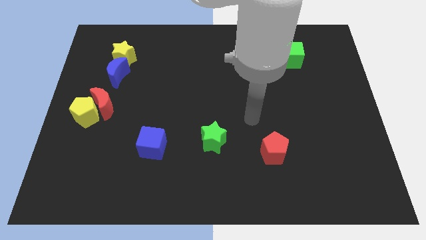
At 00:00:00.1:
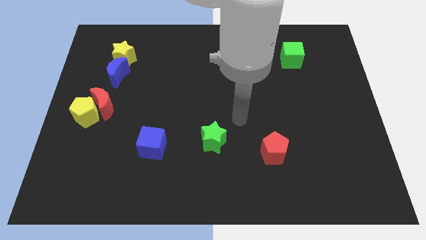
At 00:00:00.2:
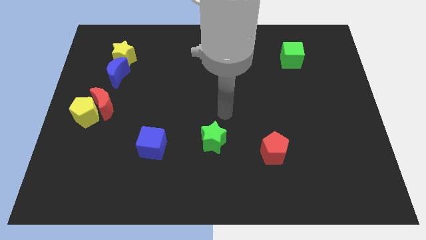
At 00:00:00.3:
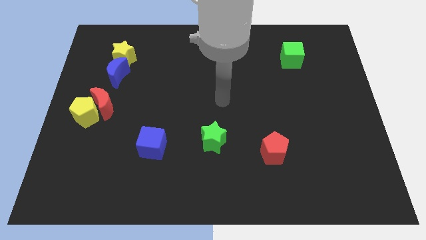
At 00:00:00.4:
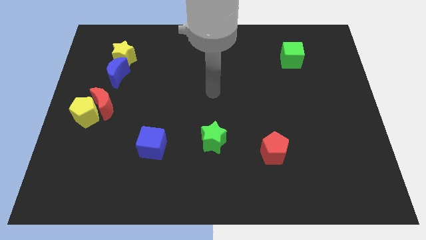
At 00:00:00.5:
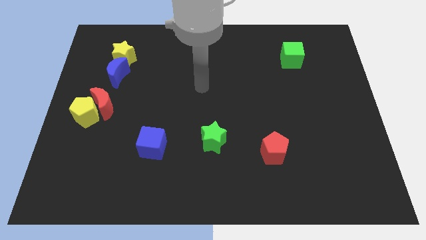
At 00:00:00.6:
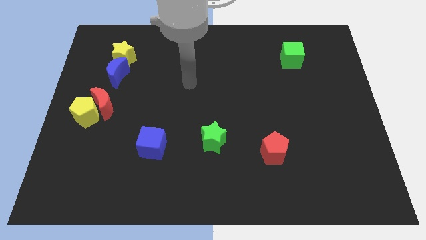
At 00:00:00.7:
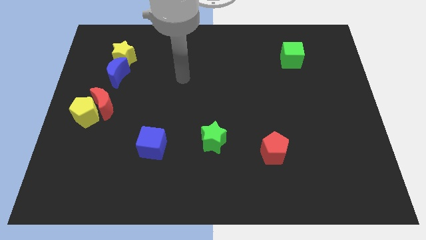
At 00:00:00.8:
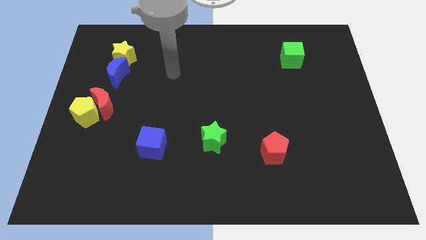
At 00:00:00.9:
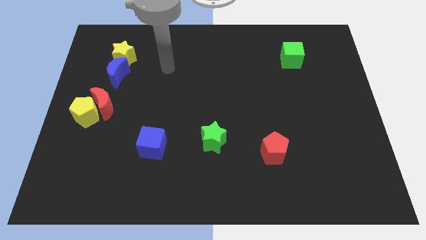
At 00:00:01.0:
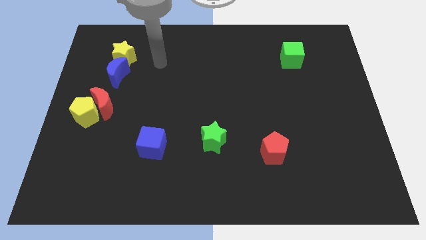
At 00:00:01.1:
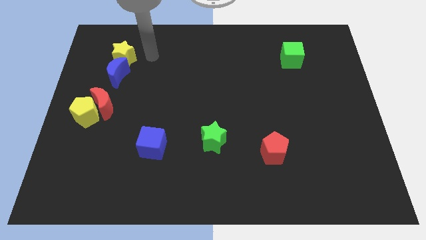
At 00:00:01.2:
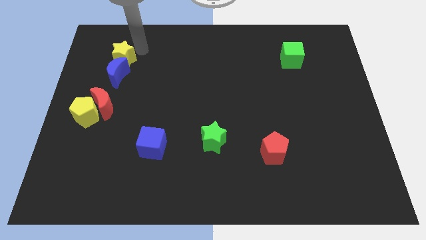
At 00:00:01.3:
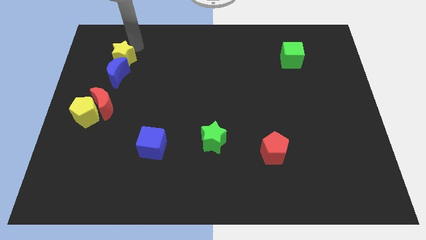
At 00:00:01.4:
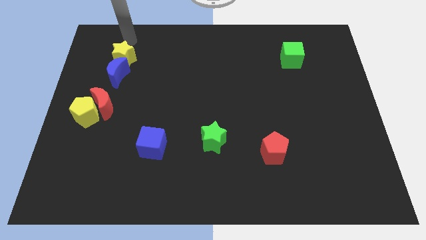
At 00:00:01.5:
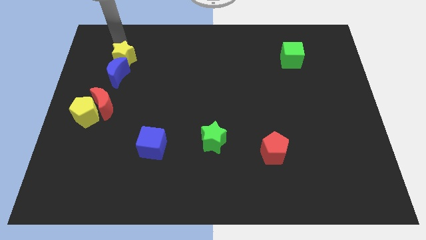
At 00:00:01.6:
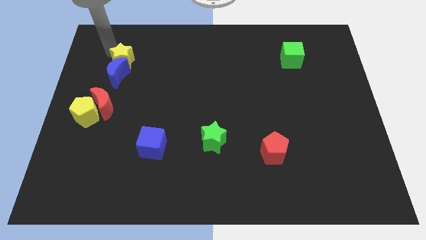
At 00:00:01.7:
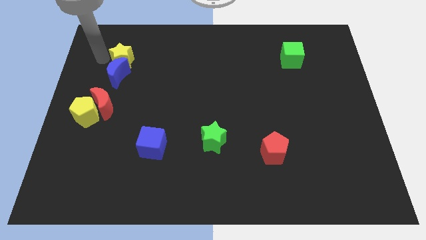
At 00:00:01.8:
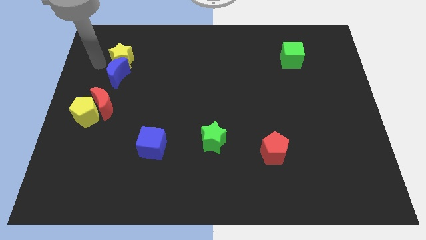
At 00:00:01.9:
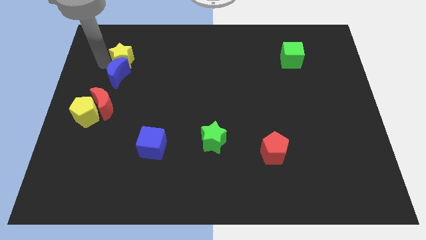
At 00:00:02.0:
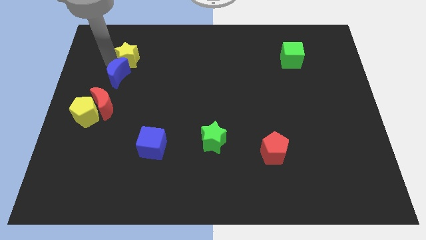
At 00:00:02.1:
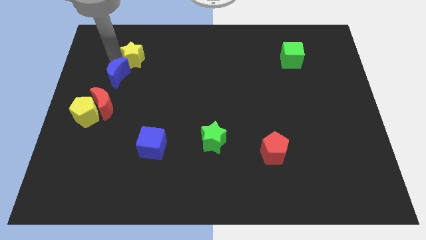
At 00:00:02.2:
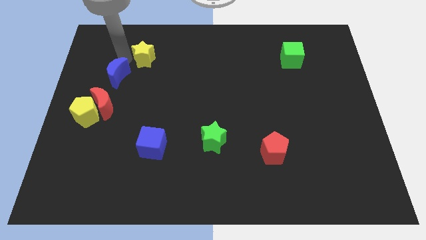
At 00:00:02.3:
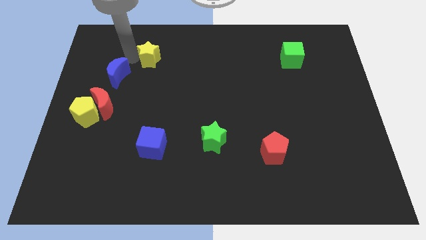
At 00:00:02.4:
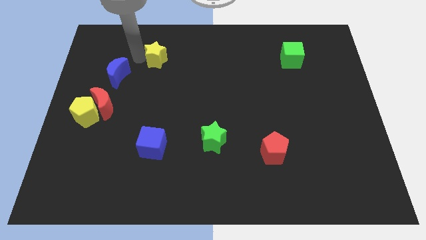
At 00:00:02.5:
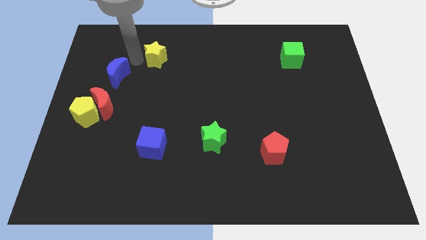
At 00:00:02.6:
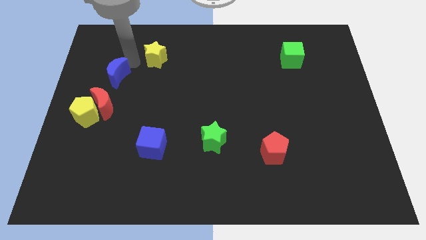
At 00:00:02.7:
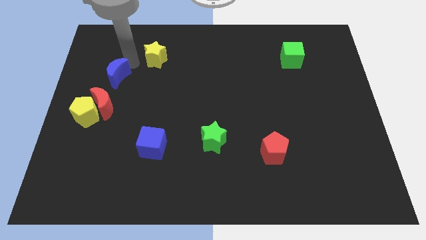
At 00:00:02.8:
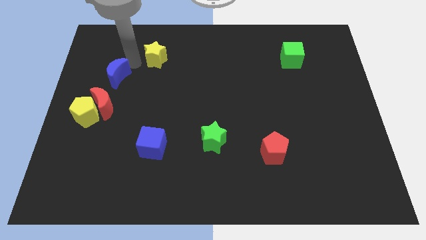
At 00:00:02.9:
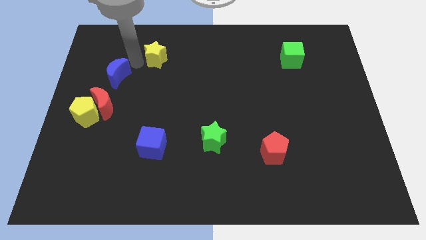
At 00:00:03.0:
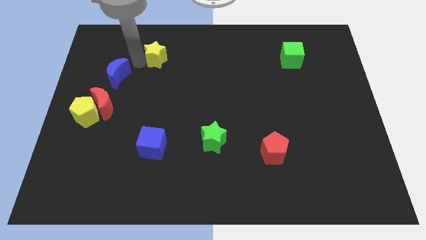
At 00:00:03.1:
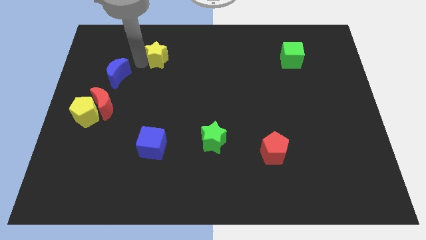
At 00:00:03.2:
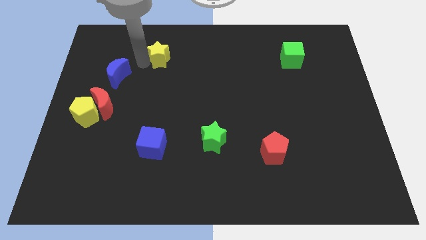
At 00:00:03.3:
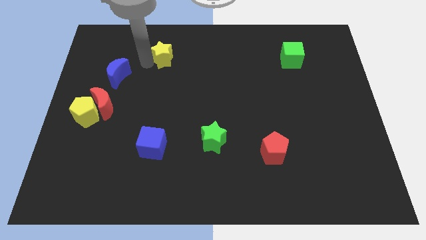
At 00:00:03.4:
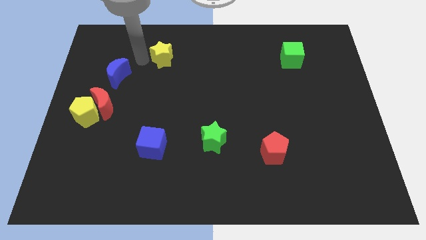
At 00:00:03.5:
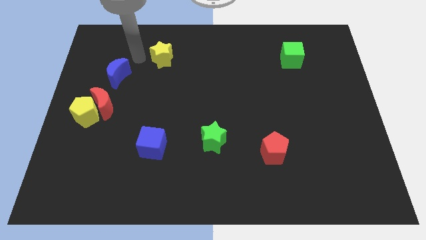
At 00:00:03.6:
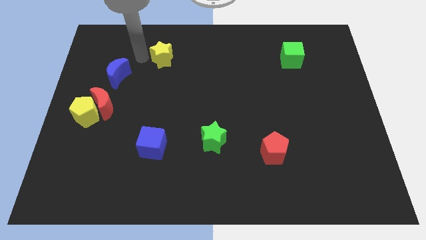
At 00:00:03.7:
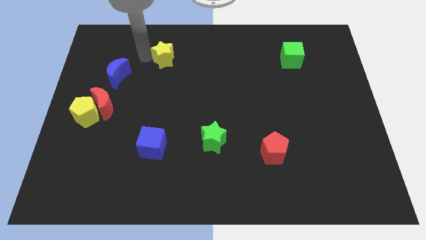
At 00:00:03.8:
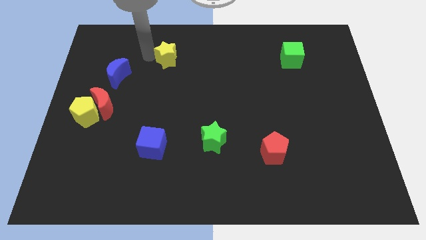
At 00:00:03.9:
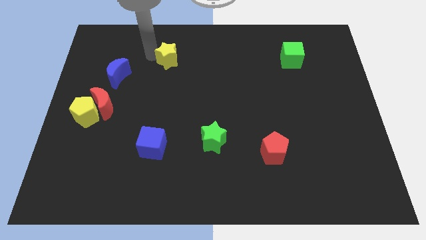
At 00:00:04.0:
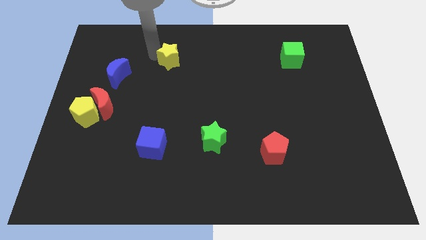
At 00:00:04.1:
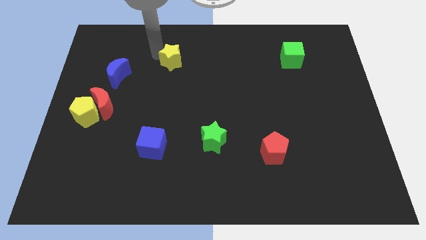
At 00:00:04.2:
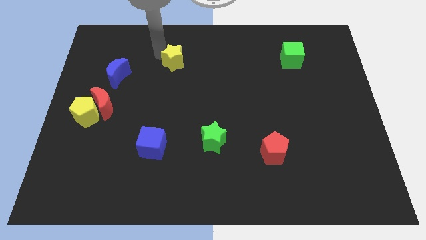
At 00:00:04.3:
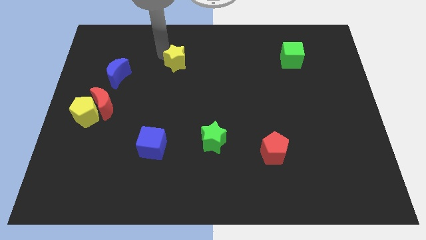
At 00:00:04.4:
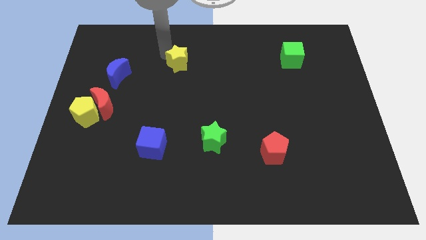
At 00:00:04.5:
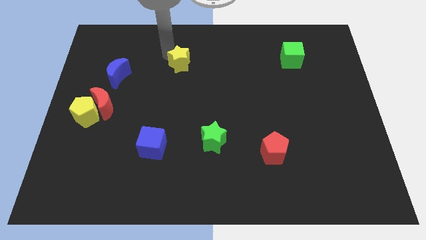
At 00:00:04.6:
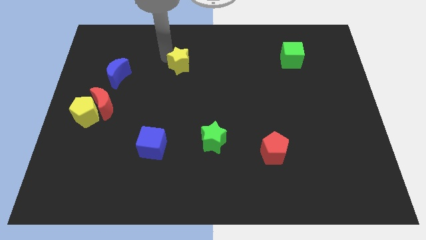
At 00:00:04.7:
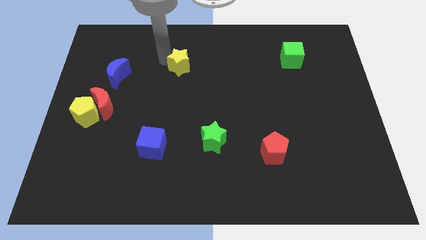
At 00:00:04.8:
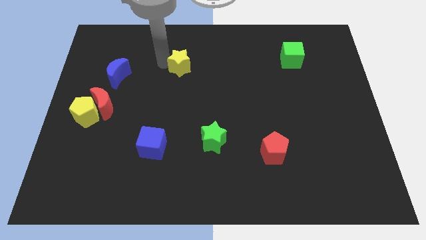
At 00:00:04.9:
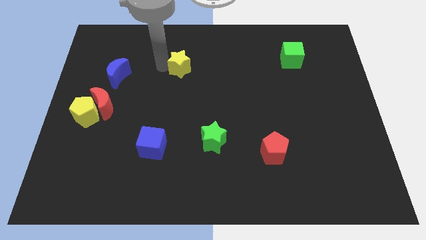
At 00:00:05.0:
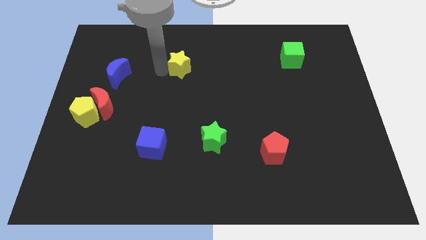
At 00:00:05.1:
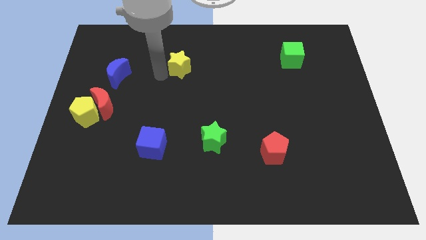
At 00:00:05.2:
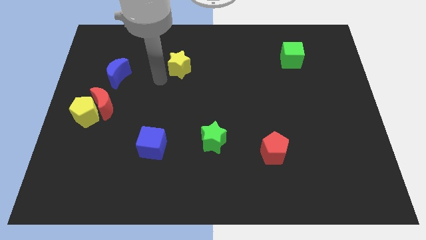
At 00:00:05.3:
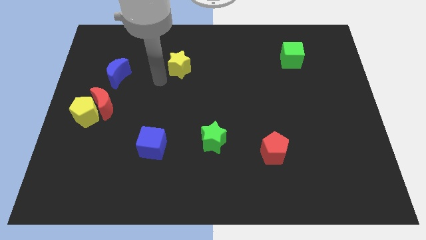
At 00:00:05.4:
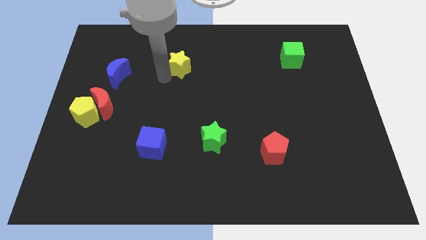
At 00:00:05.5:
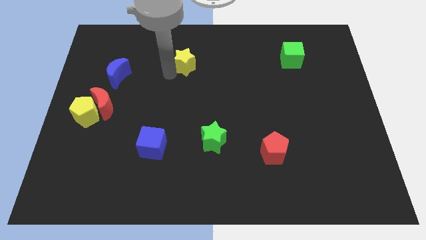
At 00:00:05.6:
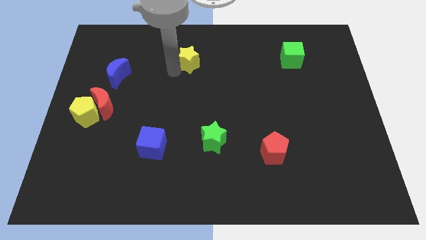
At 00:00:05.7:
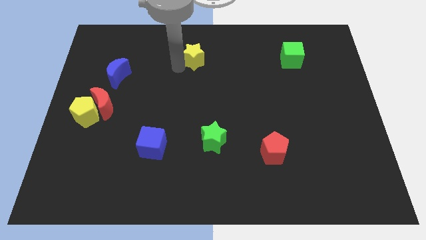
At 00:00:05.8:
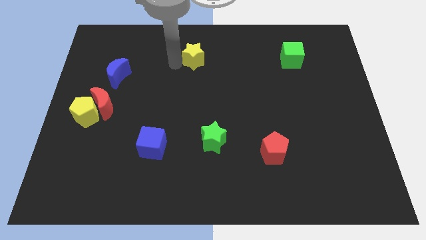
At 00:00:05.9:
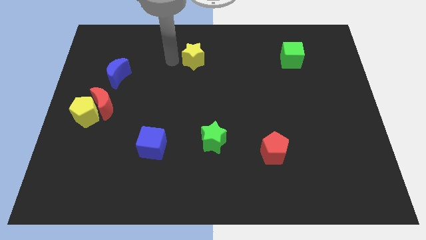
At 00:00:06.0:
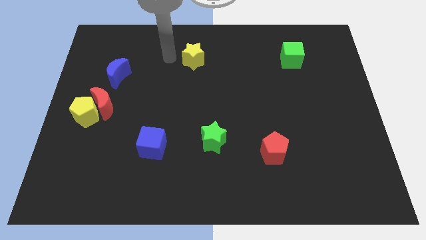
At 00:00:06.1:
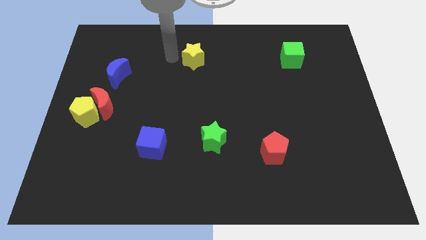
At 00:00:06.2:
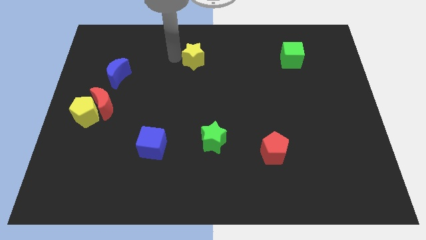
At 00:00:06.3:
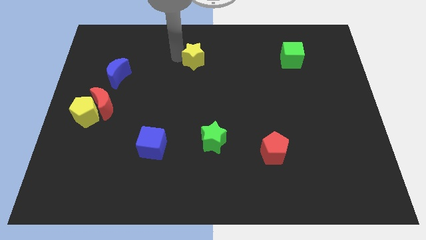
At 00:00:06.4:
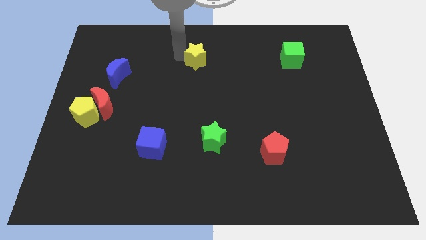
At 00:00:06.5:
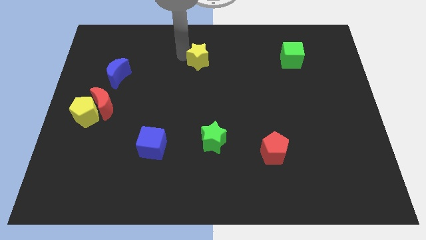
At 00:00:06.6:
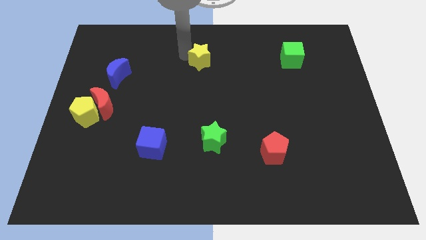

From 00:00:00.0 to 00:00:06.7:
slide the yellow star to the right

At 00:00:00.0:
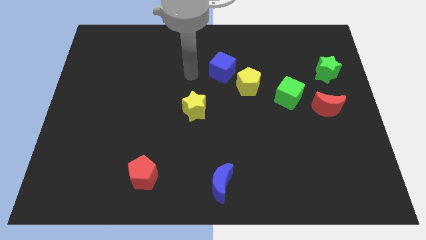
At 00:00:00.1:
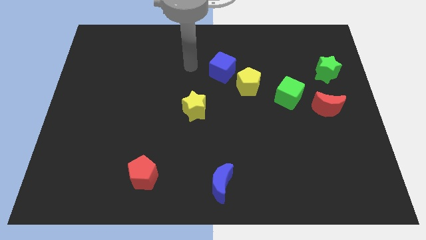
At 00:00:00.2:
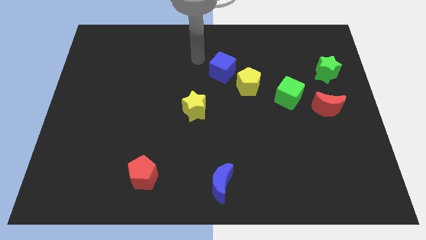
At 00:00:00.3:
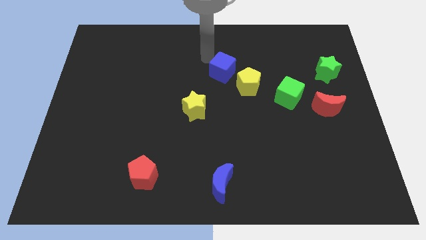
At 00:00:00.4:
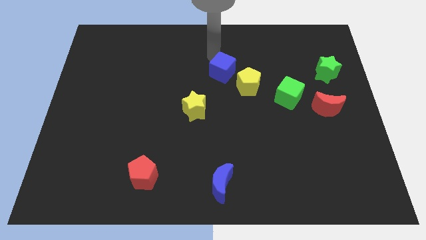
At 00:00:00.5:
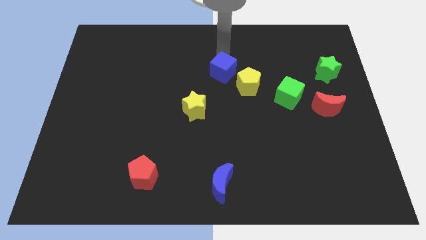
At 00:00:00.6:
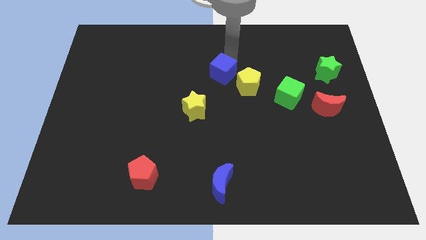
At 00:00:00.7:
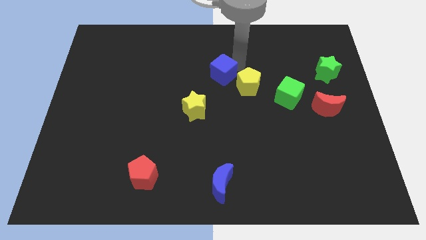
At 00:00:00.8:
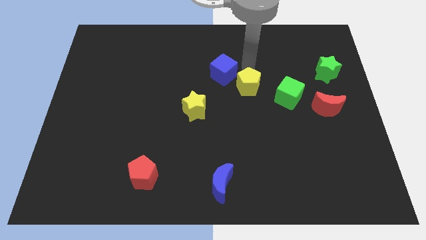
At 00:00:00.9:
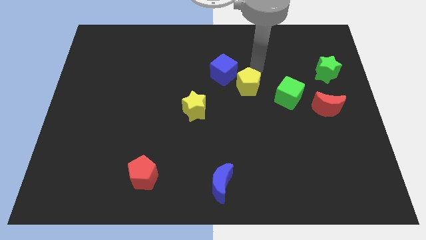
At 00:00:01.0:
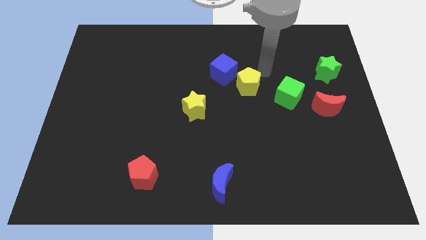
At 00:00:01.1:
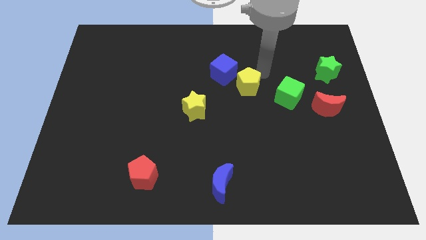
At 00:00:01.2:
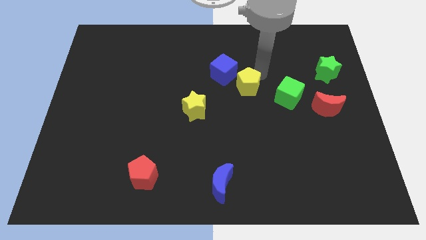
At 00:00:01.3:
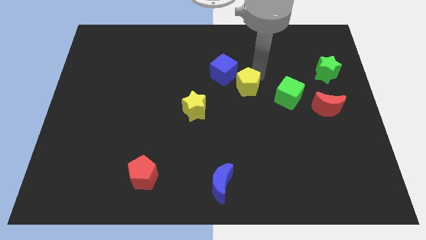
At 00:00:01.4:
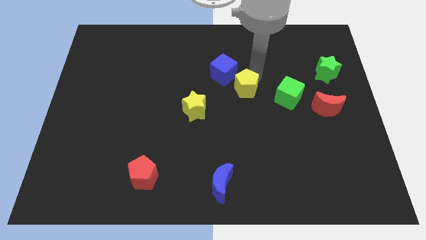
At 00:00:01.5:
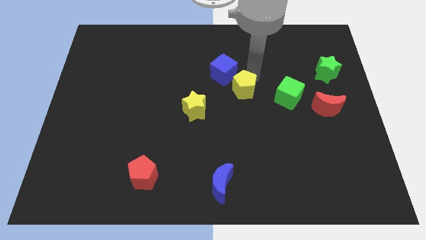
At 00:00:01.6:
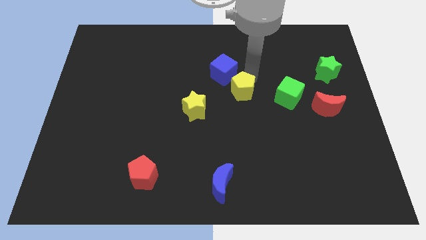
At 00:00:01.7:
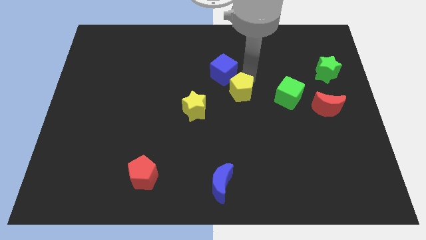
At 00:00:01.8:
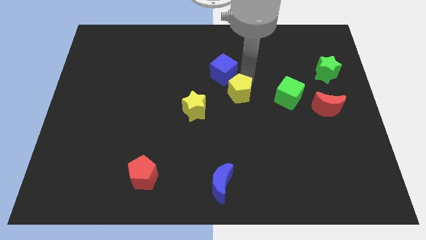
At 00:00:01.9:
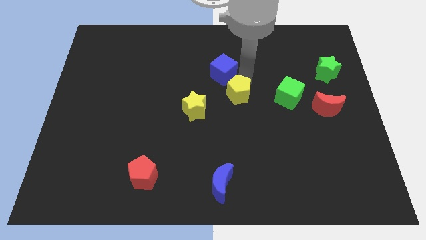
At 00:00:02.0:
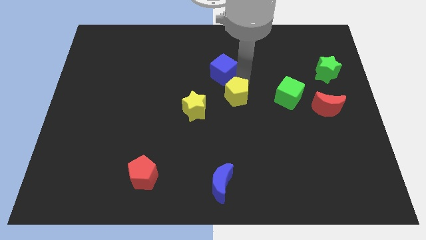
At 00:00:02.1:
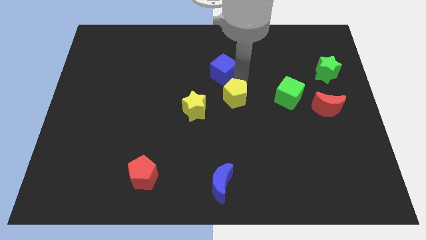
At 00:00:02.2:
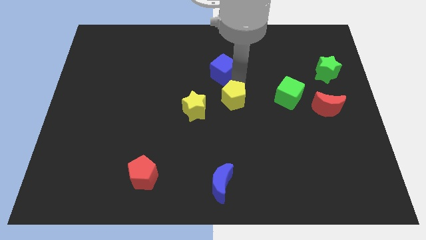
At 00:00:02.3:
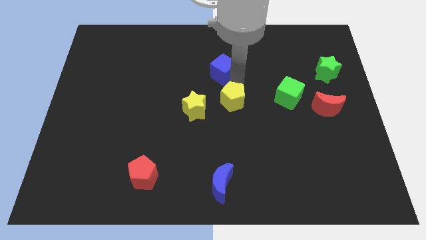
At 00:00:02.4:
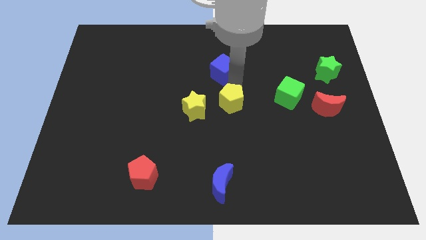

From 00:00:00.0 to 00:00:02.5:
slightly move the yellow pentagon diagonally down and to the left
